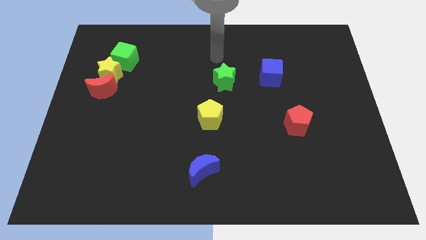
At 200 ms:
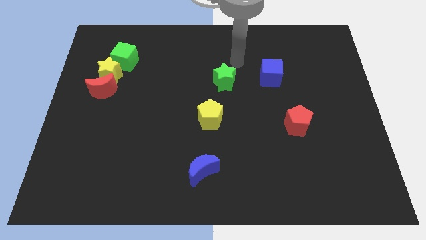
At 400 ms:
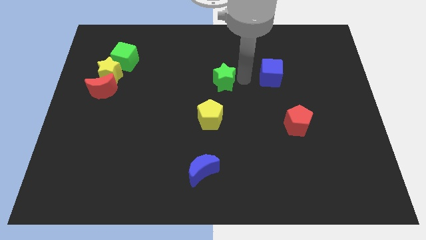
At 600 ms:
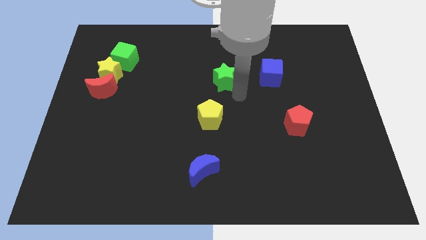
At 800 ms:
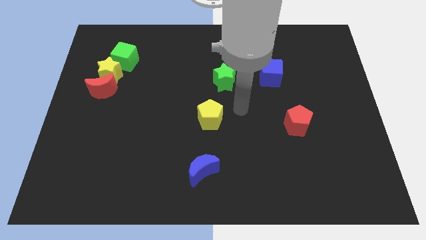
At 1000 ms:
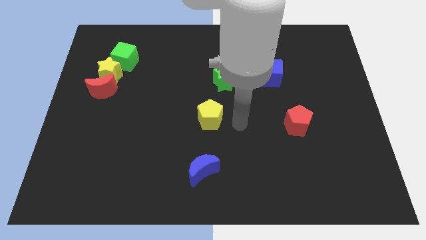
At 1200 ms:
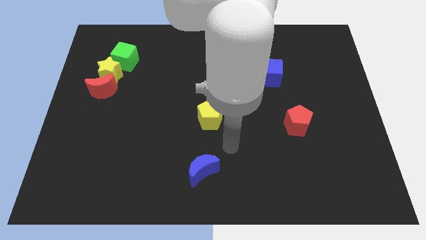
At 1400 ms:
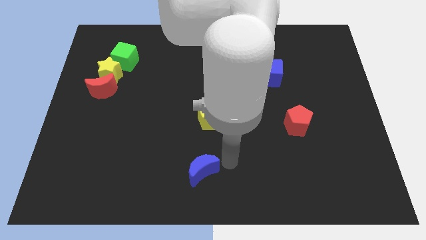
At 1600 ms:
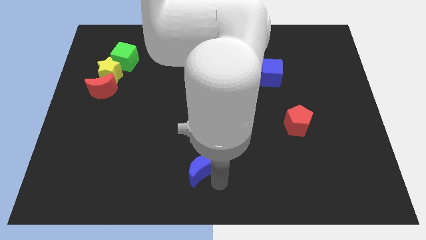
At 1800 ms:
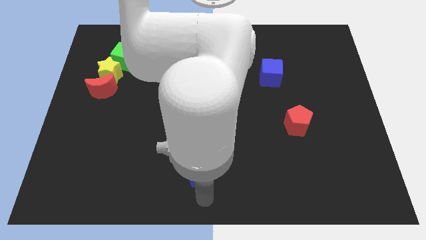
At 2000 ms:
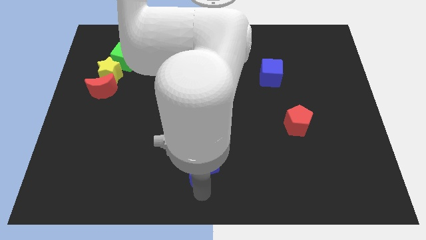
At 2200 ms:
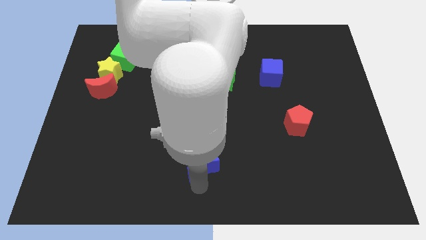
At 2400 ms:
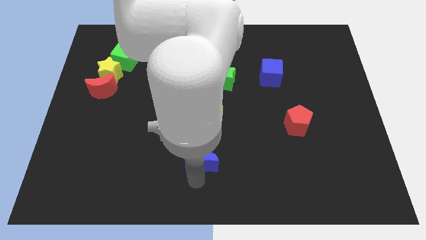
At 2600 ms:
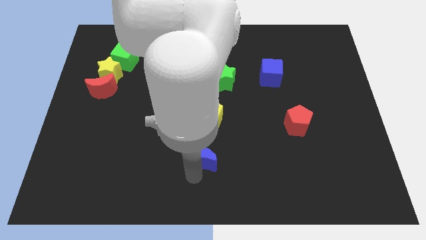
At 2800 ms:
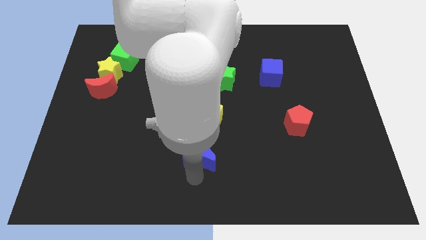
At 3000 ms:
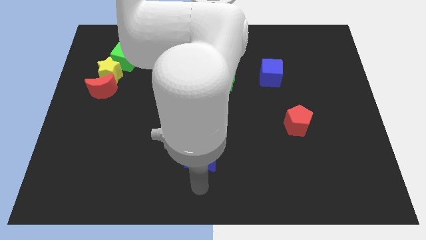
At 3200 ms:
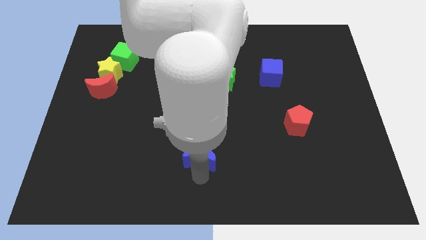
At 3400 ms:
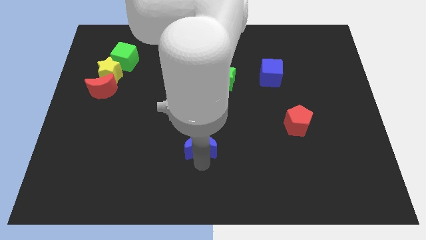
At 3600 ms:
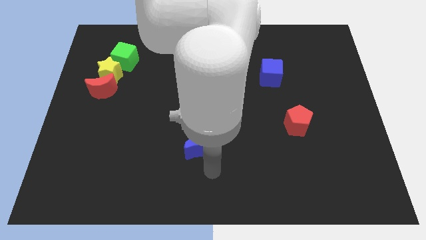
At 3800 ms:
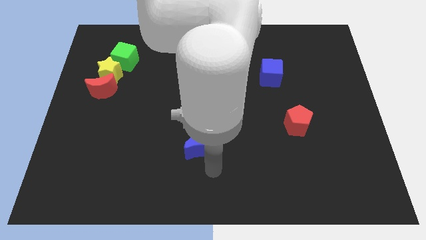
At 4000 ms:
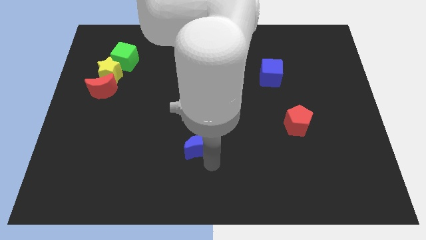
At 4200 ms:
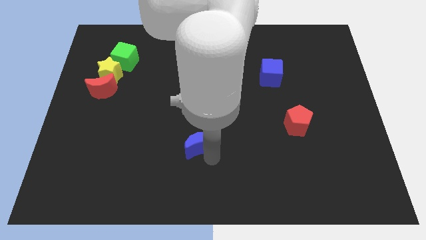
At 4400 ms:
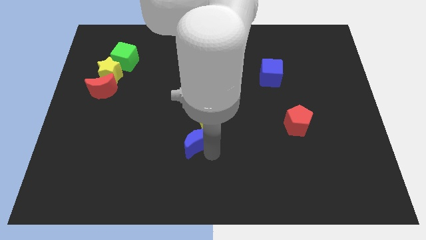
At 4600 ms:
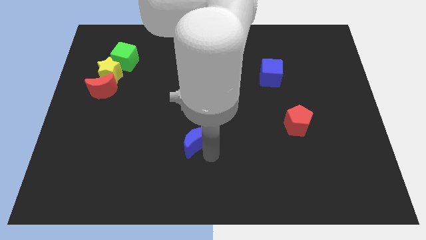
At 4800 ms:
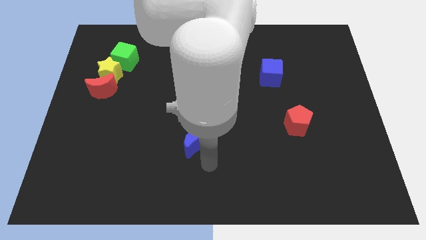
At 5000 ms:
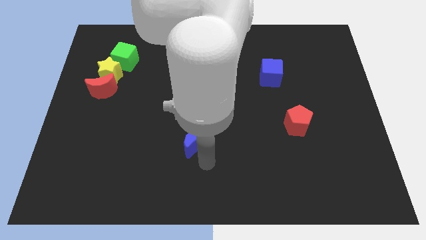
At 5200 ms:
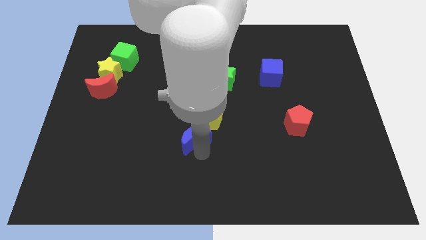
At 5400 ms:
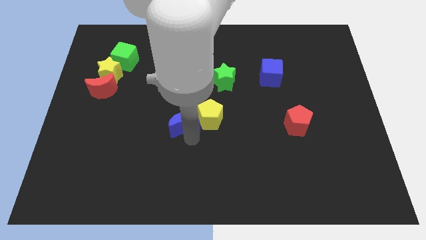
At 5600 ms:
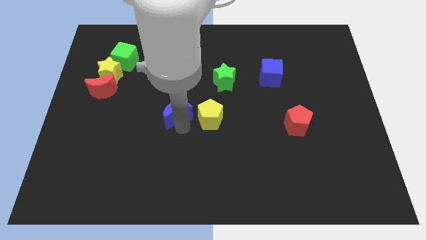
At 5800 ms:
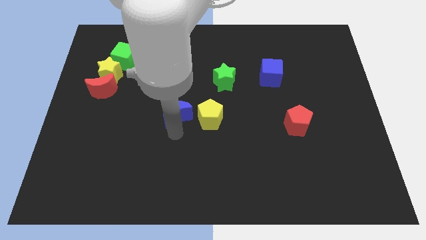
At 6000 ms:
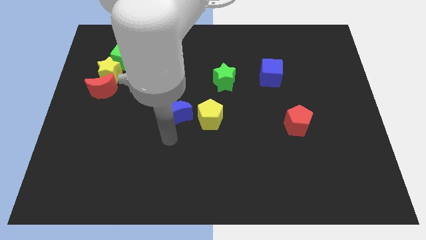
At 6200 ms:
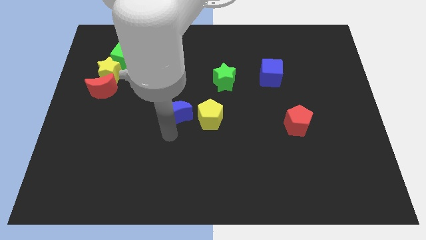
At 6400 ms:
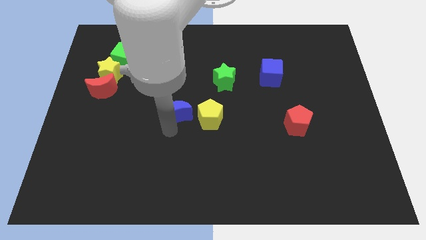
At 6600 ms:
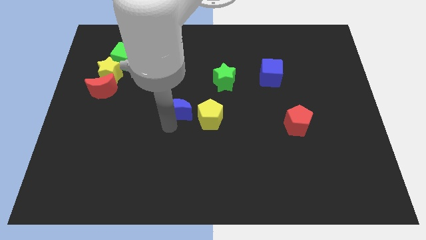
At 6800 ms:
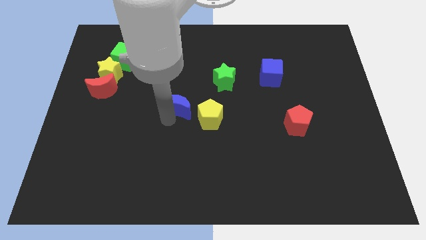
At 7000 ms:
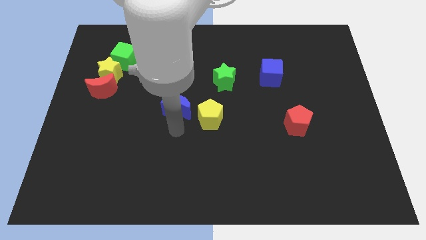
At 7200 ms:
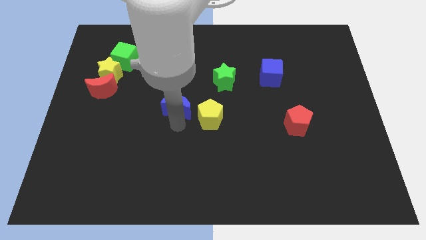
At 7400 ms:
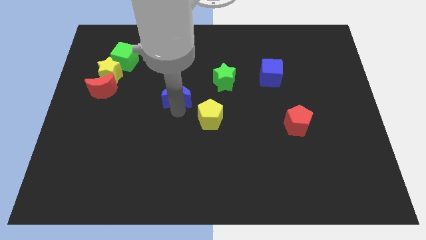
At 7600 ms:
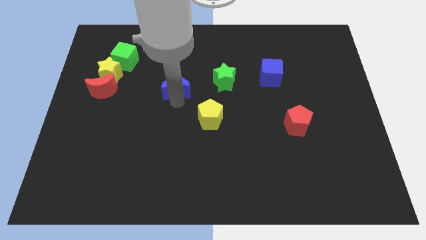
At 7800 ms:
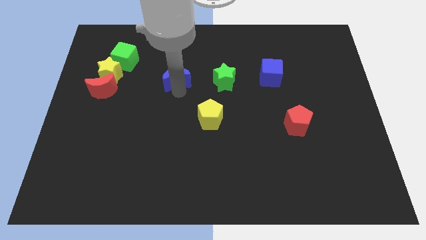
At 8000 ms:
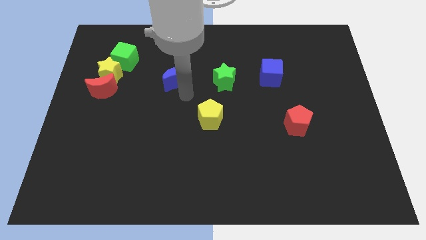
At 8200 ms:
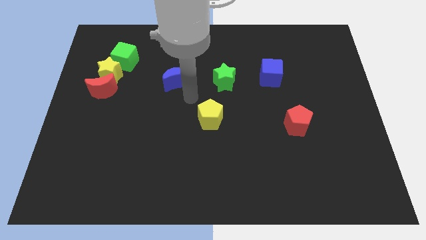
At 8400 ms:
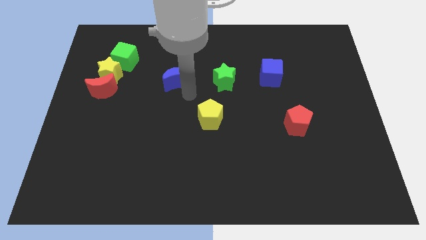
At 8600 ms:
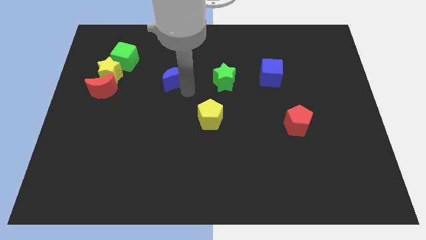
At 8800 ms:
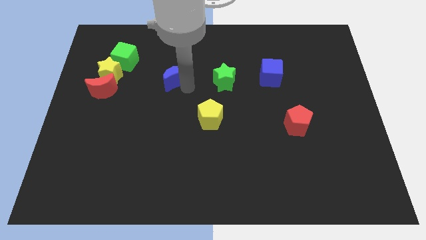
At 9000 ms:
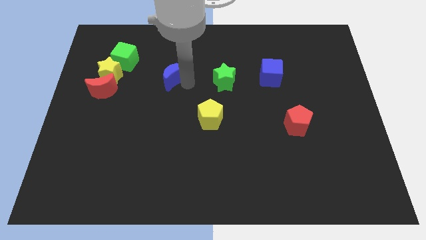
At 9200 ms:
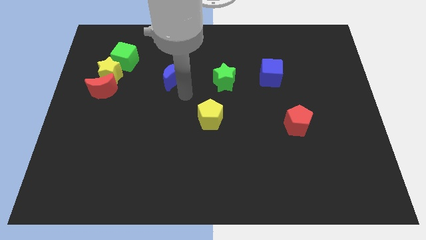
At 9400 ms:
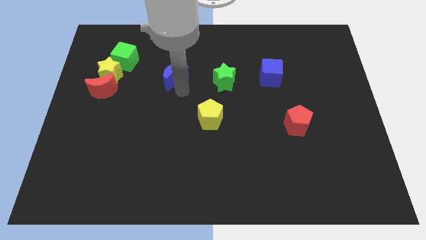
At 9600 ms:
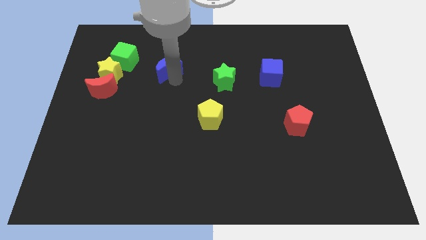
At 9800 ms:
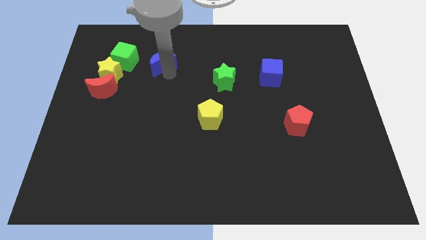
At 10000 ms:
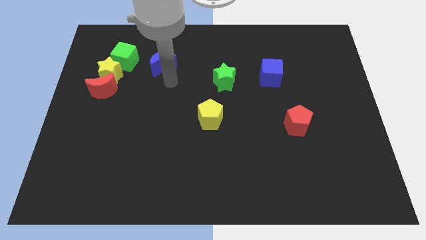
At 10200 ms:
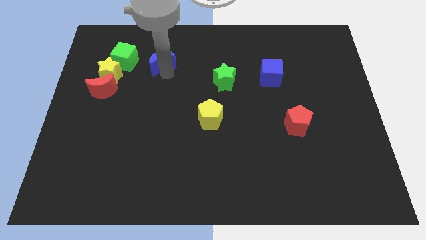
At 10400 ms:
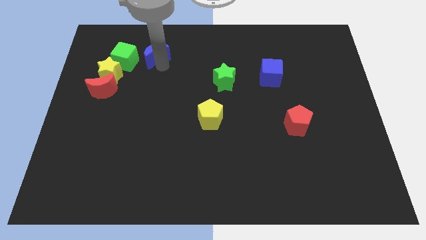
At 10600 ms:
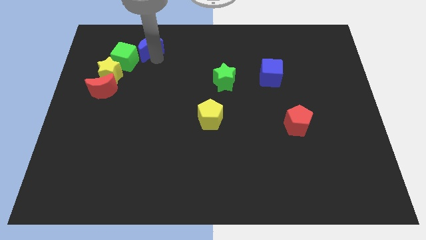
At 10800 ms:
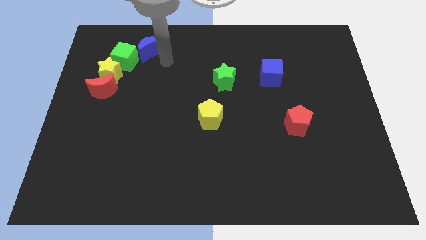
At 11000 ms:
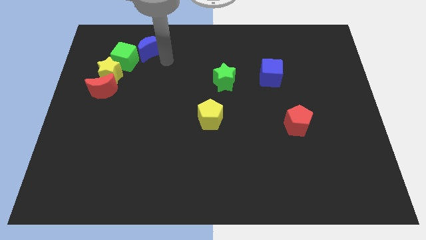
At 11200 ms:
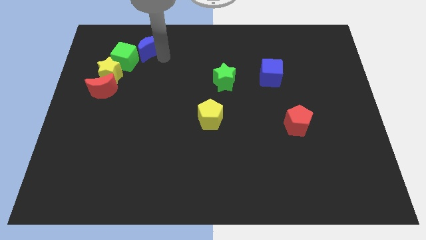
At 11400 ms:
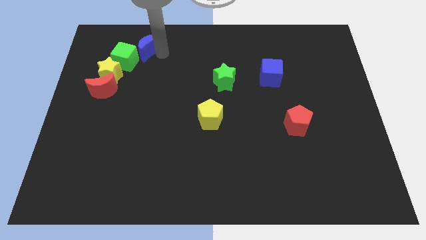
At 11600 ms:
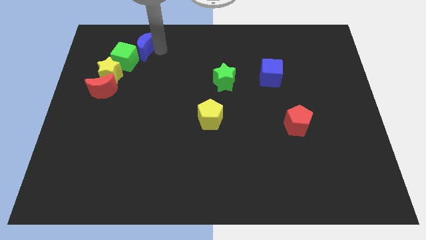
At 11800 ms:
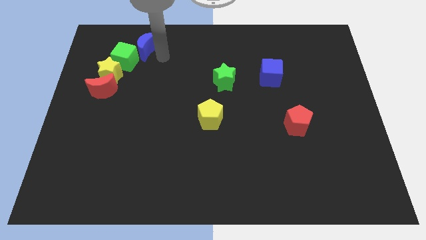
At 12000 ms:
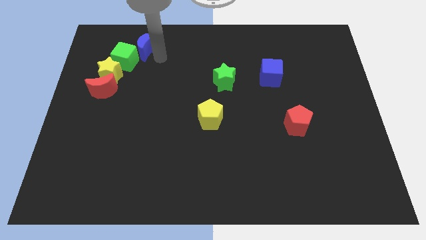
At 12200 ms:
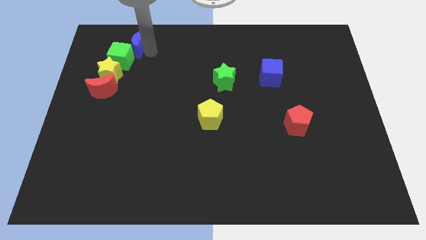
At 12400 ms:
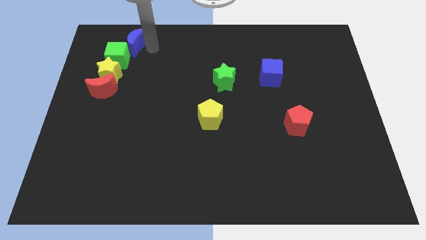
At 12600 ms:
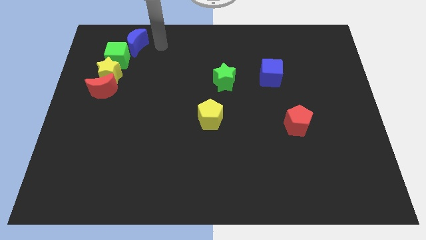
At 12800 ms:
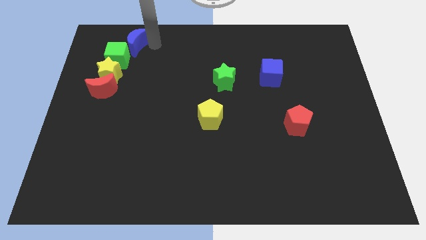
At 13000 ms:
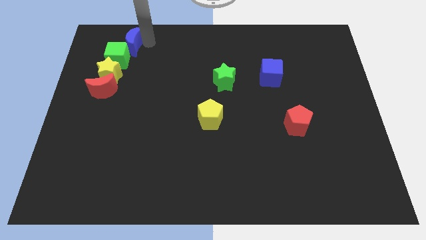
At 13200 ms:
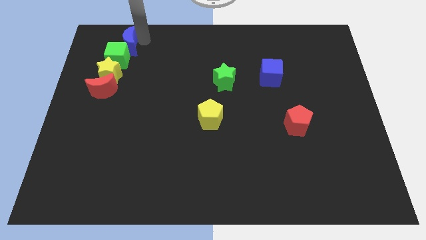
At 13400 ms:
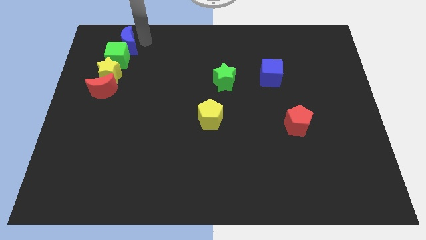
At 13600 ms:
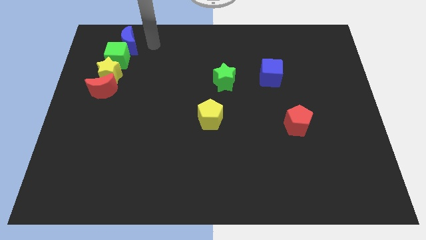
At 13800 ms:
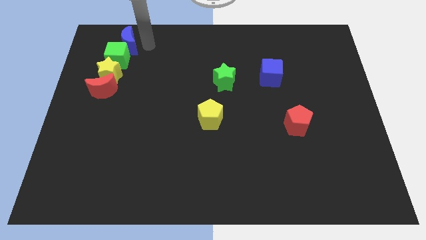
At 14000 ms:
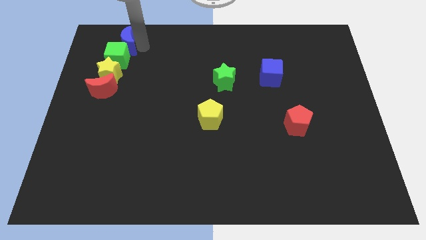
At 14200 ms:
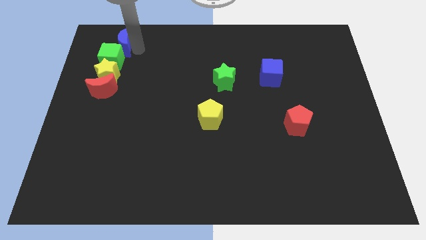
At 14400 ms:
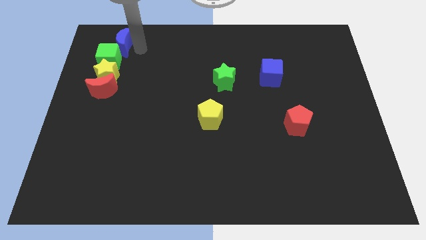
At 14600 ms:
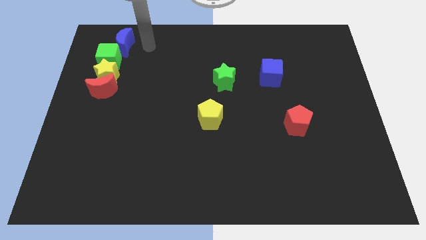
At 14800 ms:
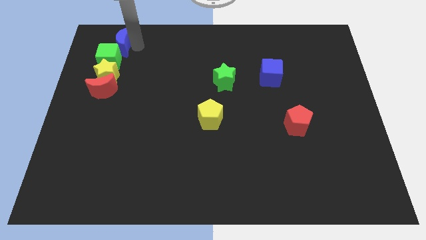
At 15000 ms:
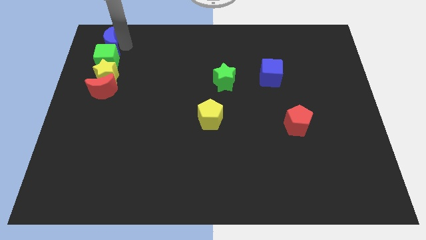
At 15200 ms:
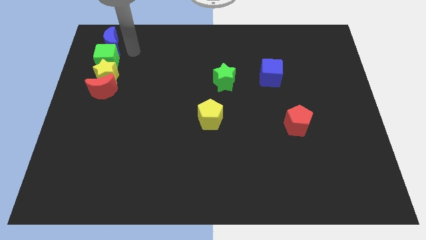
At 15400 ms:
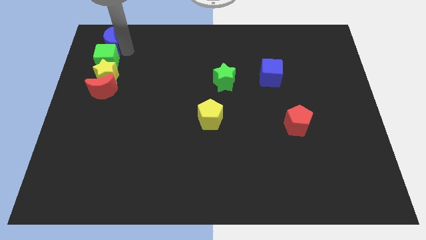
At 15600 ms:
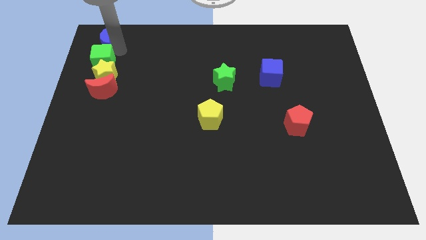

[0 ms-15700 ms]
put the blue moon to the top left corner
